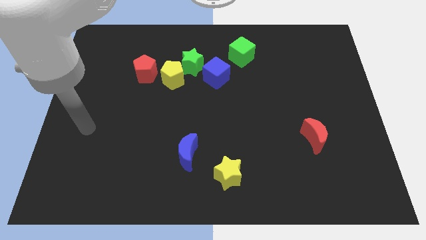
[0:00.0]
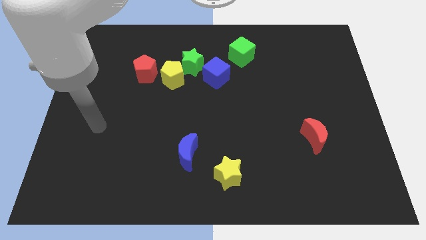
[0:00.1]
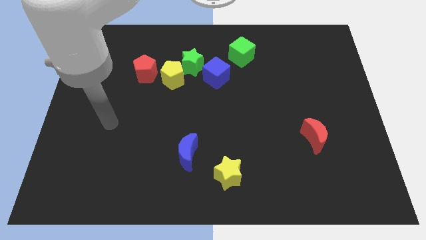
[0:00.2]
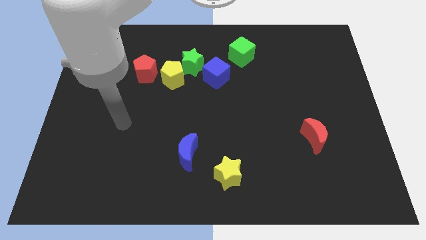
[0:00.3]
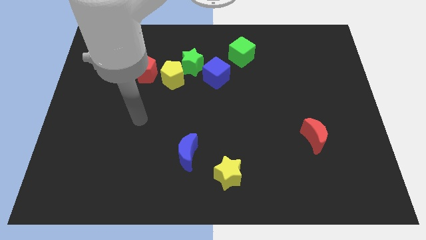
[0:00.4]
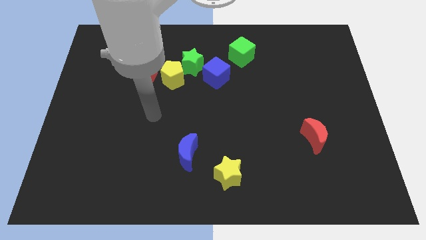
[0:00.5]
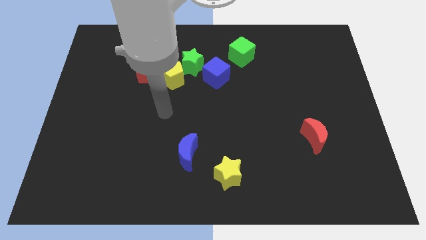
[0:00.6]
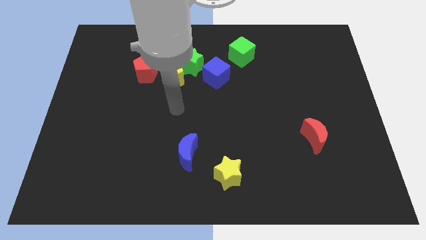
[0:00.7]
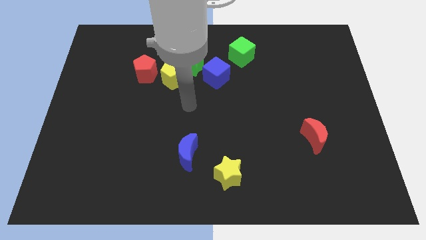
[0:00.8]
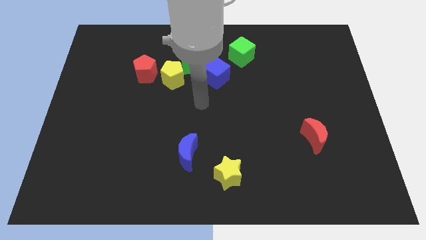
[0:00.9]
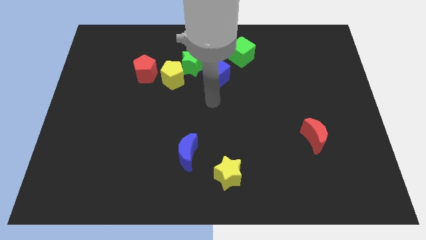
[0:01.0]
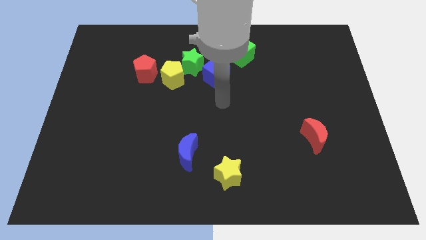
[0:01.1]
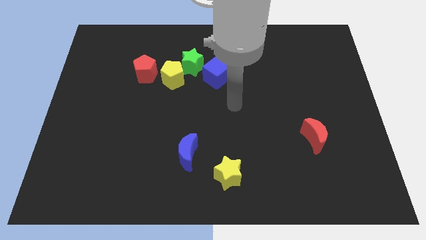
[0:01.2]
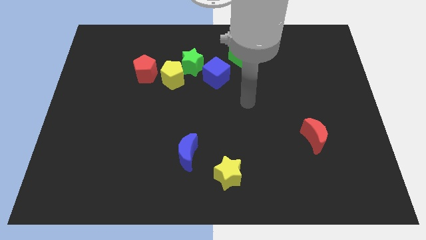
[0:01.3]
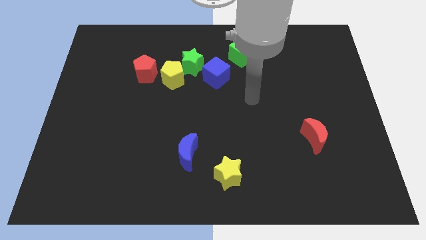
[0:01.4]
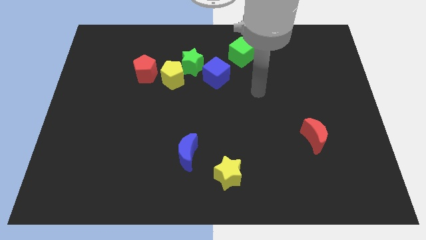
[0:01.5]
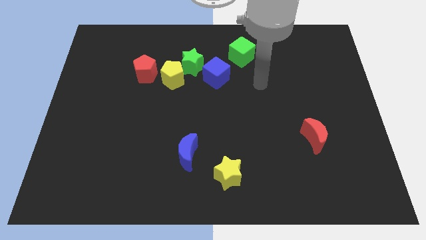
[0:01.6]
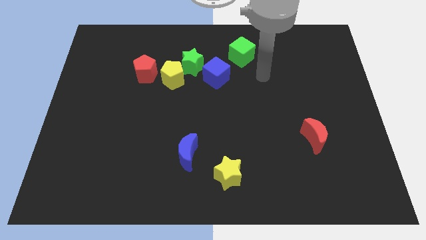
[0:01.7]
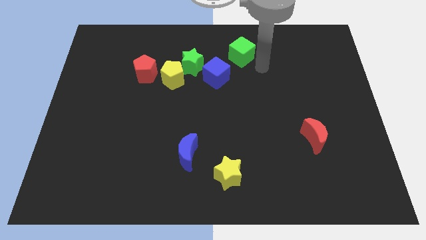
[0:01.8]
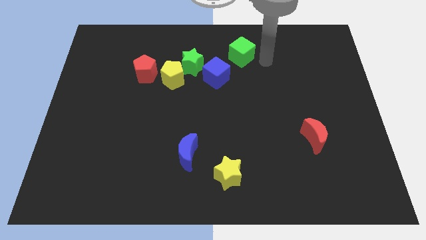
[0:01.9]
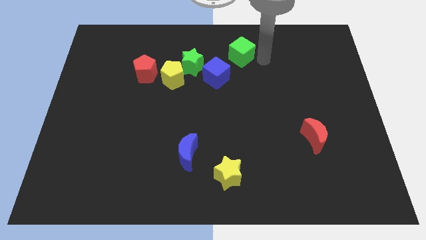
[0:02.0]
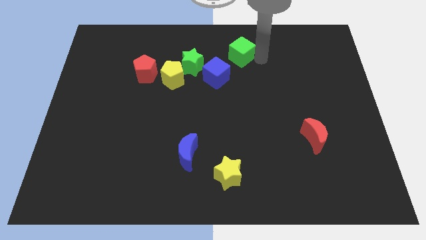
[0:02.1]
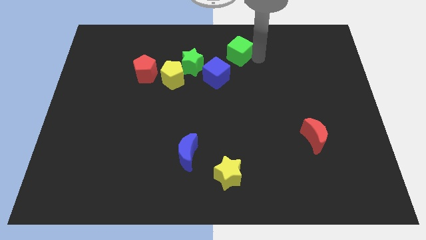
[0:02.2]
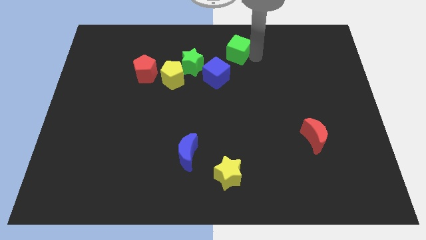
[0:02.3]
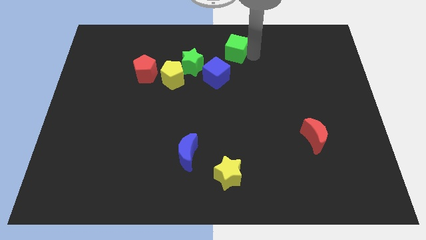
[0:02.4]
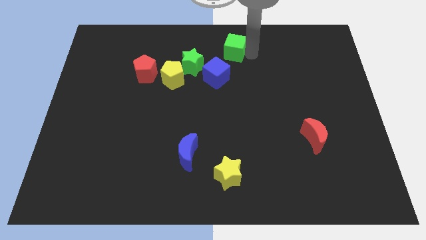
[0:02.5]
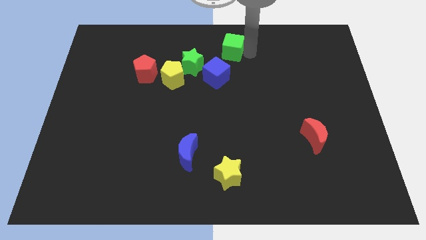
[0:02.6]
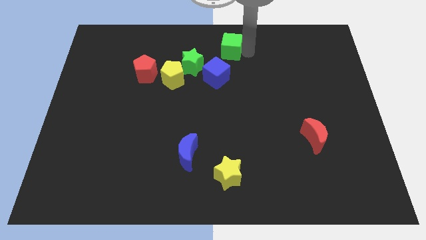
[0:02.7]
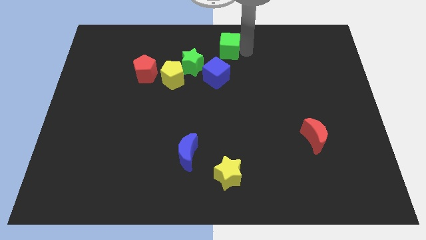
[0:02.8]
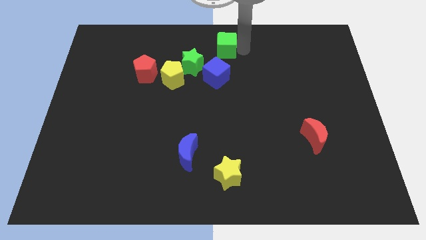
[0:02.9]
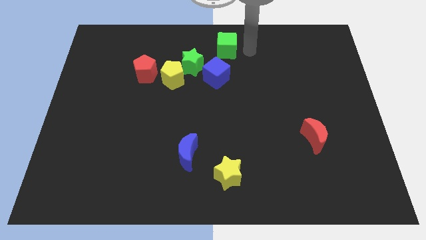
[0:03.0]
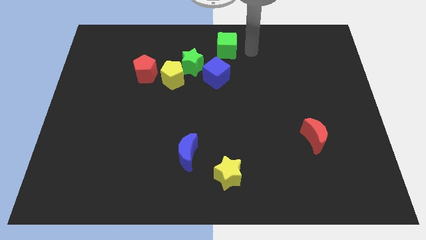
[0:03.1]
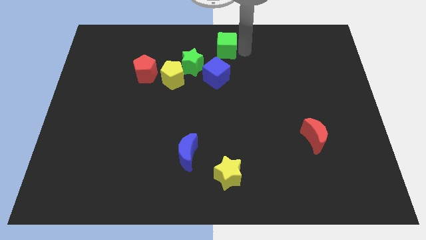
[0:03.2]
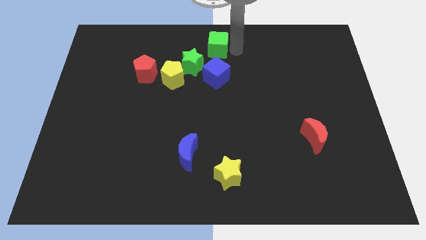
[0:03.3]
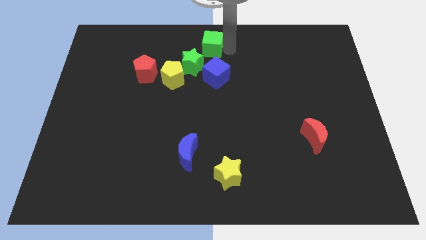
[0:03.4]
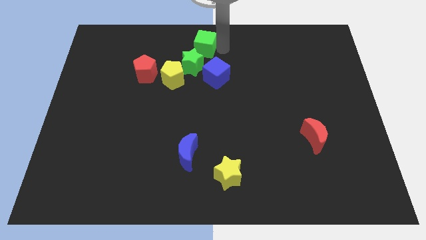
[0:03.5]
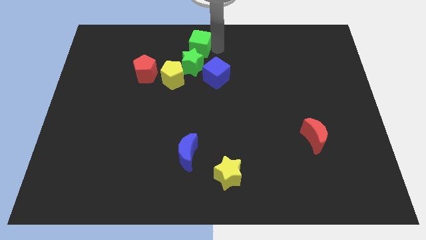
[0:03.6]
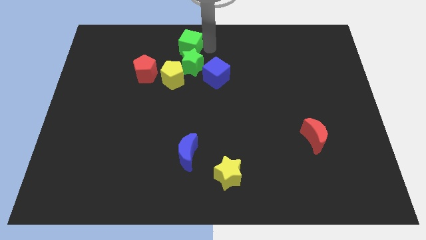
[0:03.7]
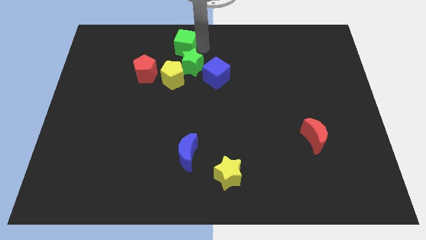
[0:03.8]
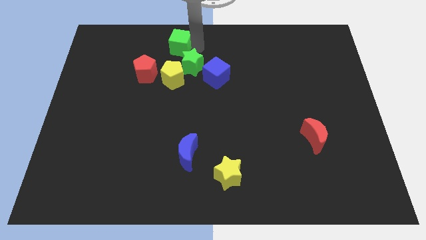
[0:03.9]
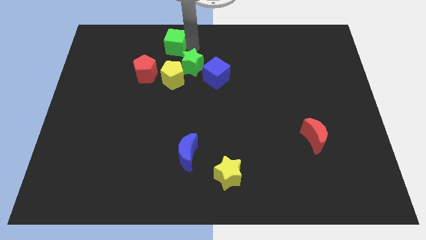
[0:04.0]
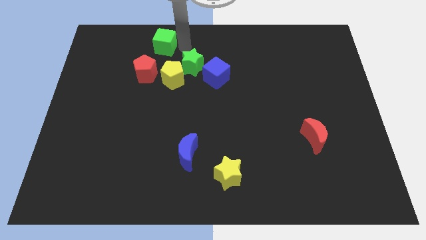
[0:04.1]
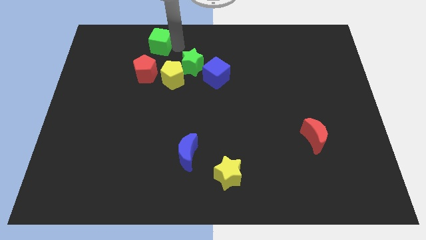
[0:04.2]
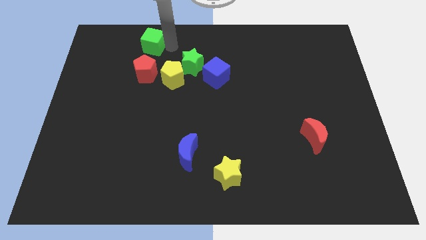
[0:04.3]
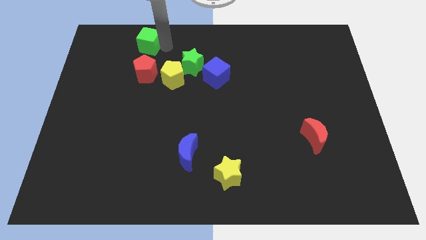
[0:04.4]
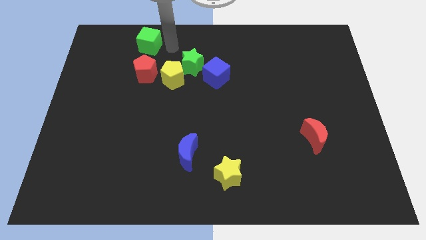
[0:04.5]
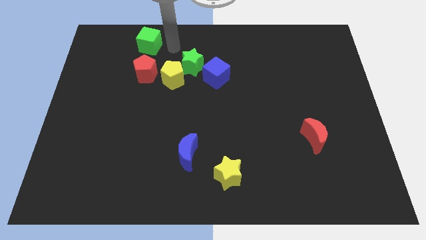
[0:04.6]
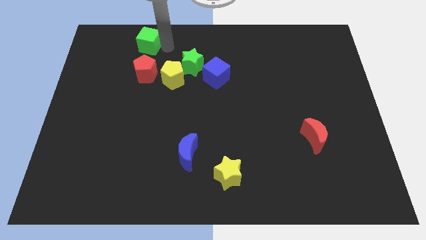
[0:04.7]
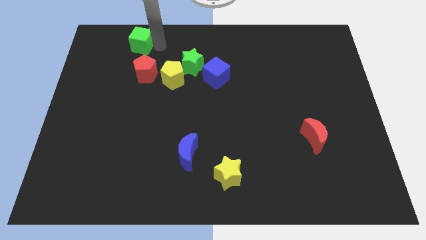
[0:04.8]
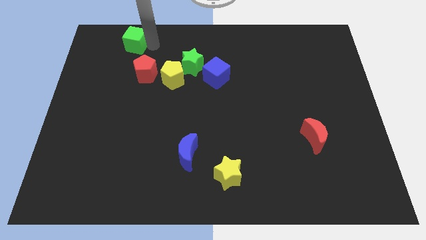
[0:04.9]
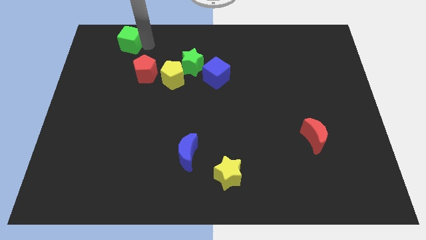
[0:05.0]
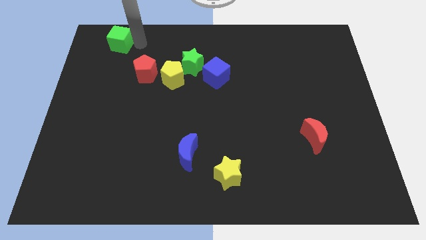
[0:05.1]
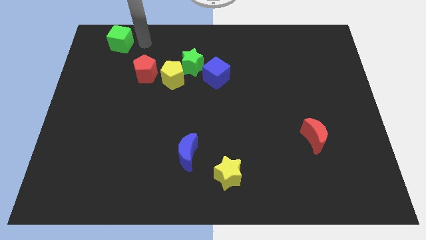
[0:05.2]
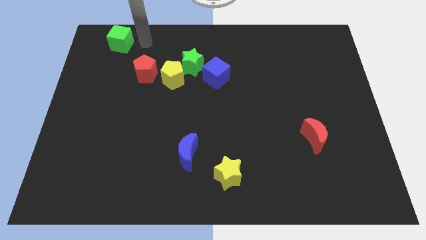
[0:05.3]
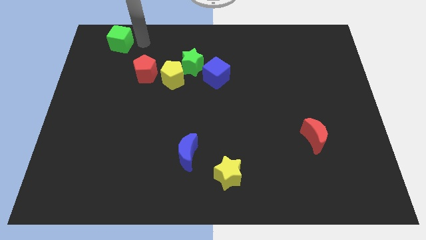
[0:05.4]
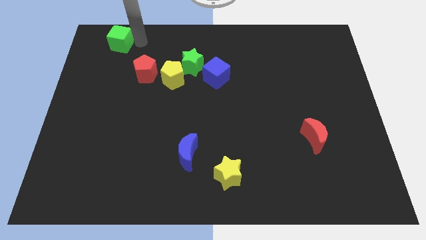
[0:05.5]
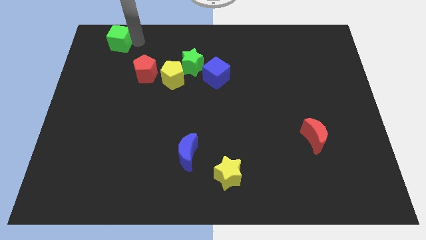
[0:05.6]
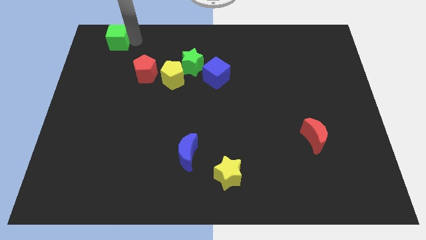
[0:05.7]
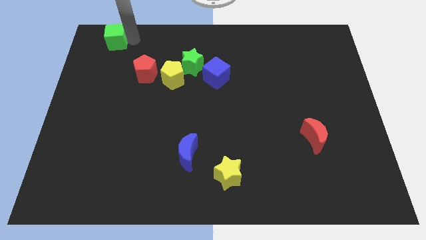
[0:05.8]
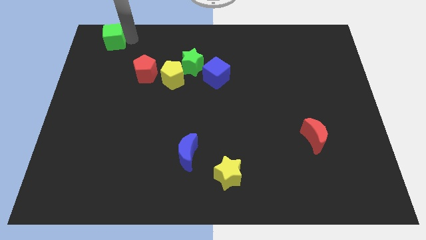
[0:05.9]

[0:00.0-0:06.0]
push the green cube to the top left

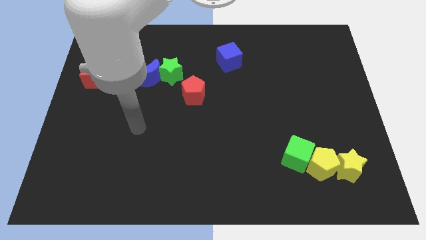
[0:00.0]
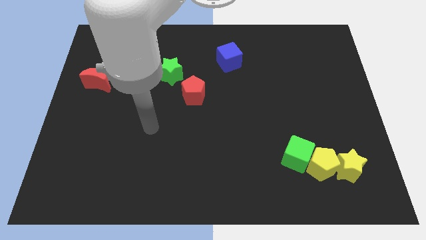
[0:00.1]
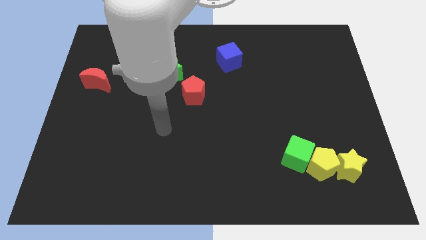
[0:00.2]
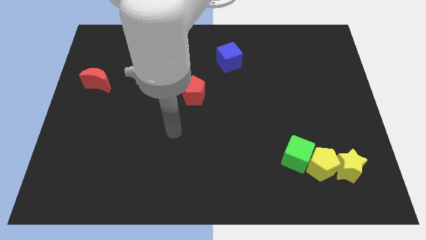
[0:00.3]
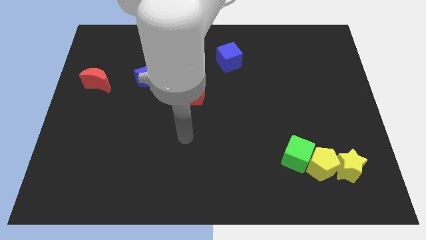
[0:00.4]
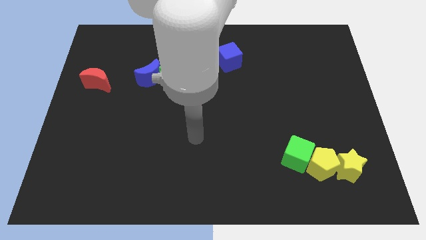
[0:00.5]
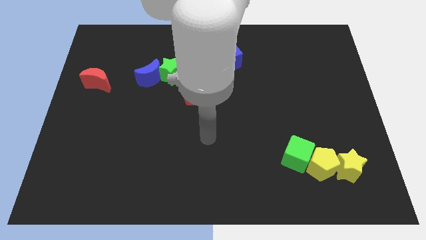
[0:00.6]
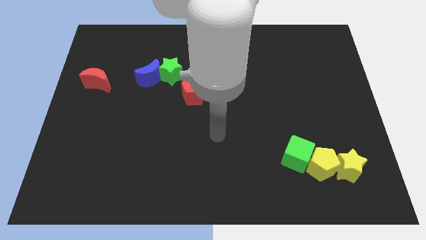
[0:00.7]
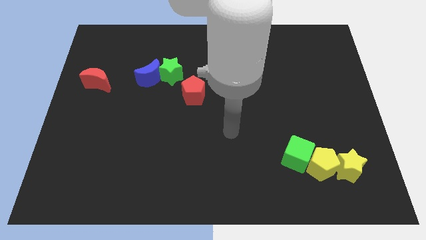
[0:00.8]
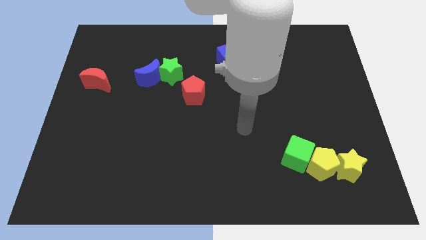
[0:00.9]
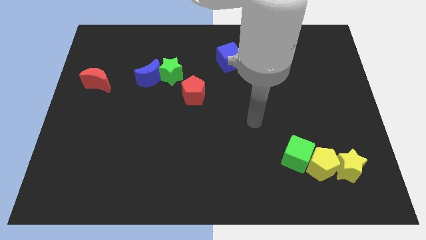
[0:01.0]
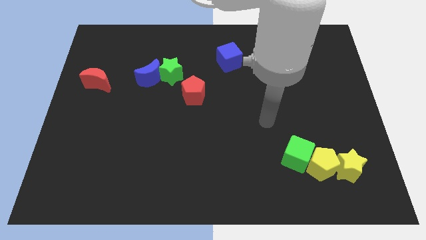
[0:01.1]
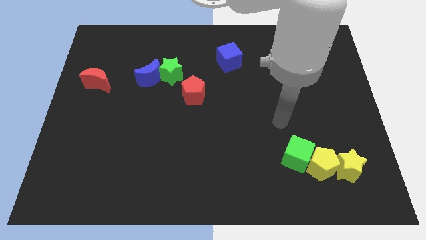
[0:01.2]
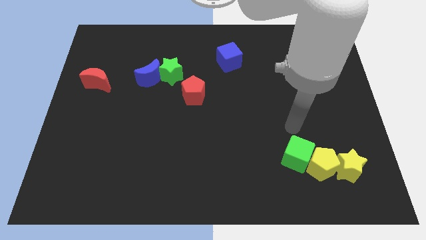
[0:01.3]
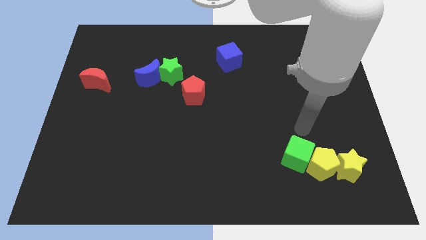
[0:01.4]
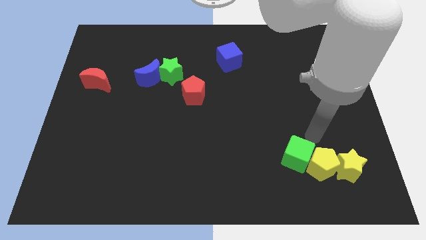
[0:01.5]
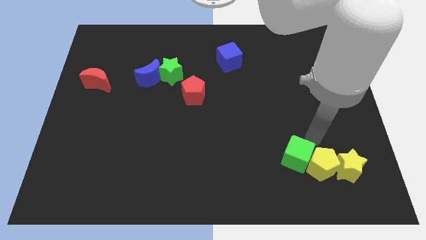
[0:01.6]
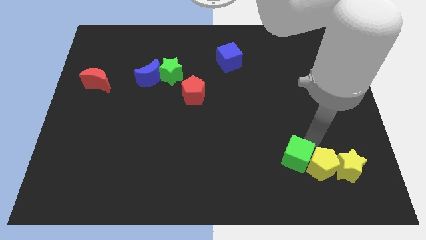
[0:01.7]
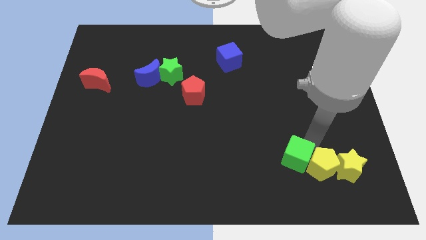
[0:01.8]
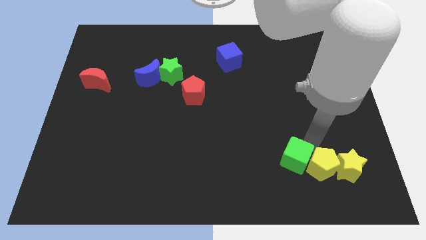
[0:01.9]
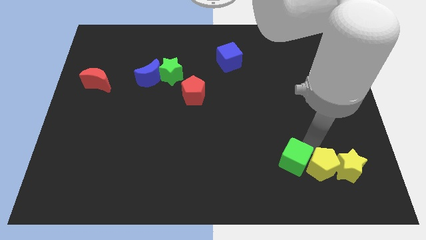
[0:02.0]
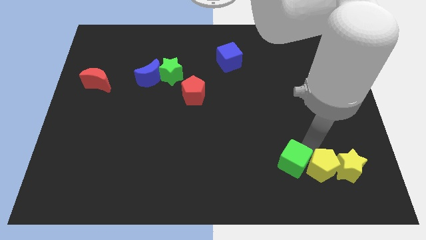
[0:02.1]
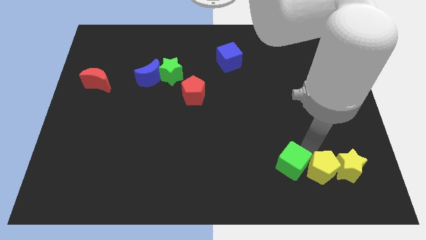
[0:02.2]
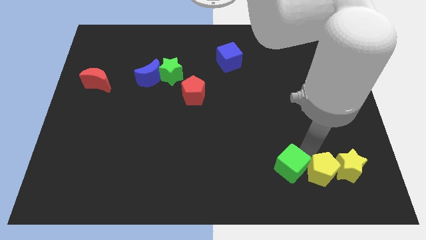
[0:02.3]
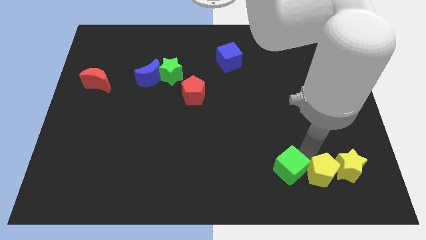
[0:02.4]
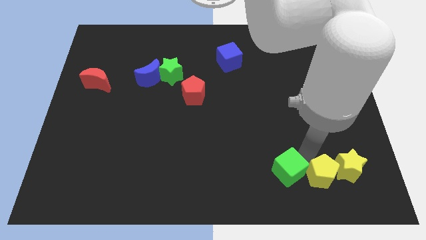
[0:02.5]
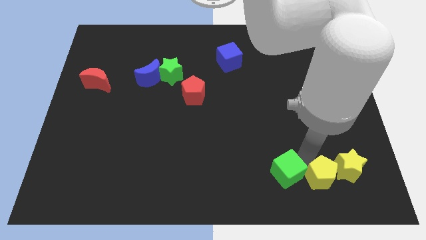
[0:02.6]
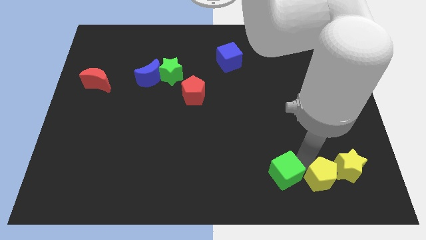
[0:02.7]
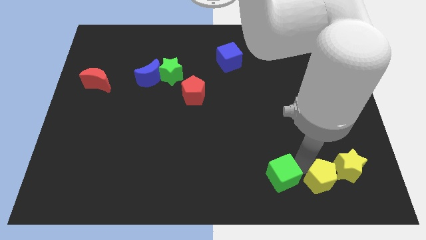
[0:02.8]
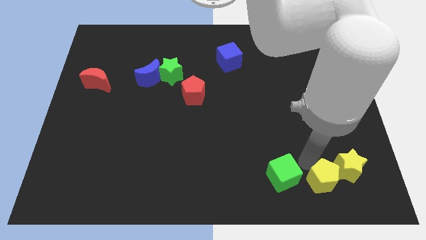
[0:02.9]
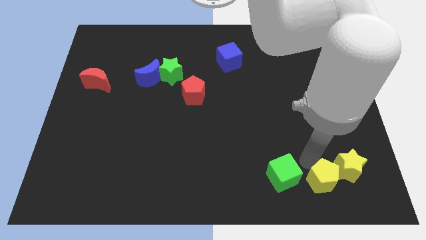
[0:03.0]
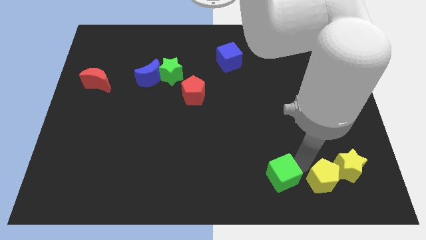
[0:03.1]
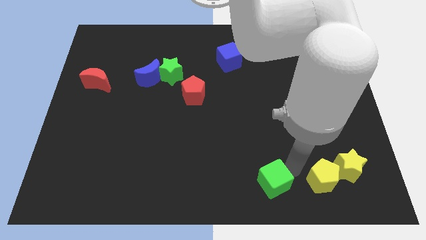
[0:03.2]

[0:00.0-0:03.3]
put the green cube to the bottom side
